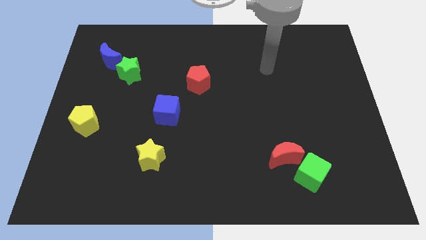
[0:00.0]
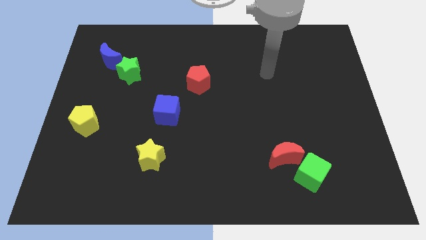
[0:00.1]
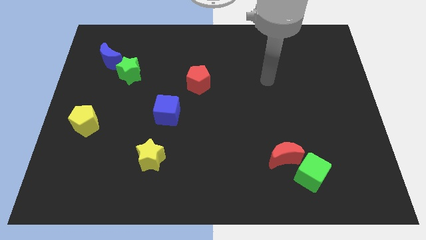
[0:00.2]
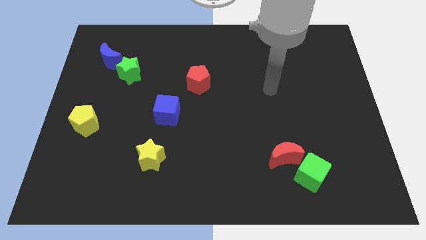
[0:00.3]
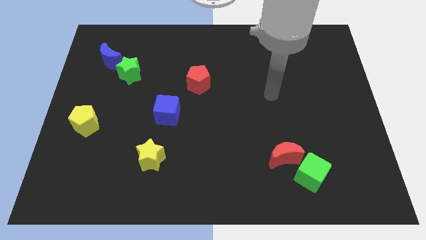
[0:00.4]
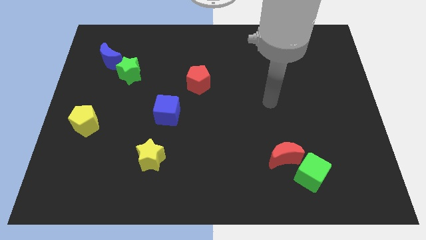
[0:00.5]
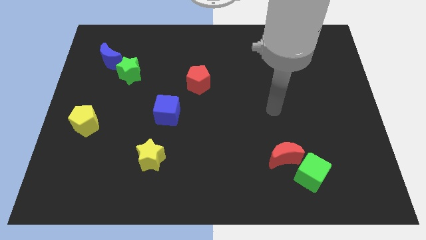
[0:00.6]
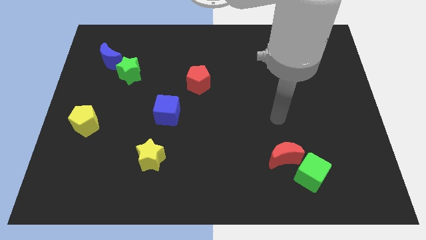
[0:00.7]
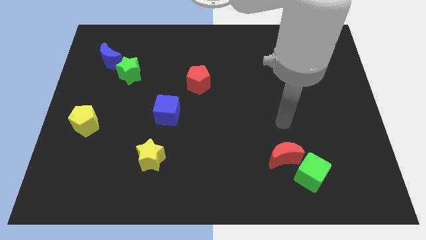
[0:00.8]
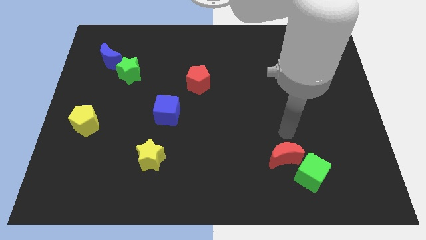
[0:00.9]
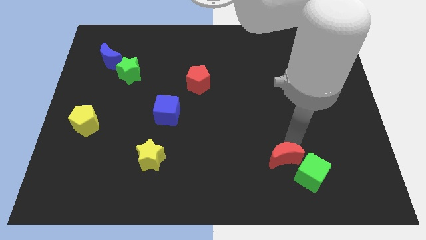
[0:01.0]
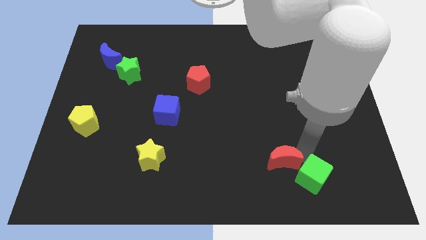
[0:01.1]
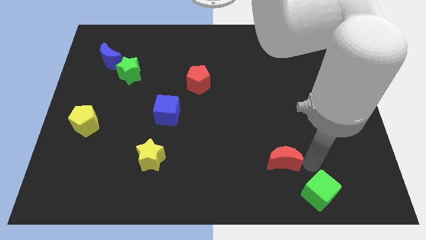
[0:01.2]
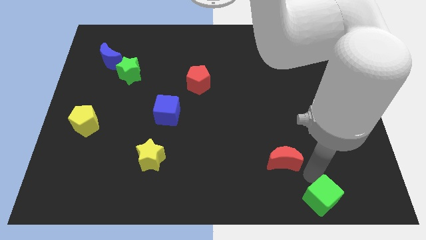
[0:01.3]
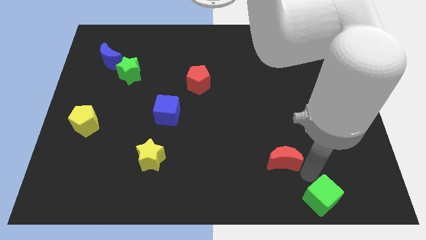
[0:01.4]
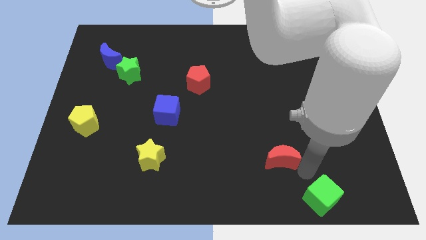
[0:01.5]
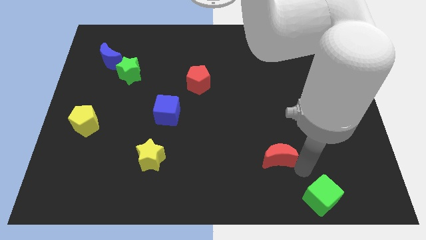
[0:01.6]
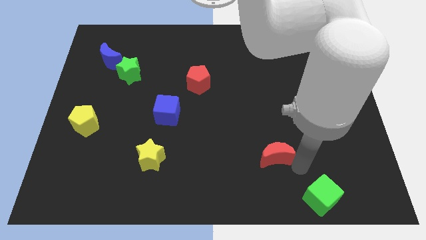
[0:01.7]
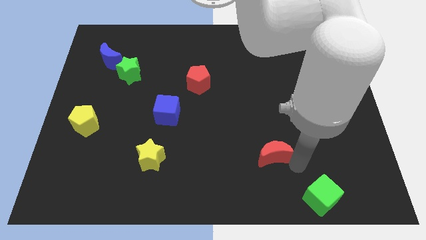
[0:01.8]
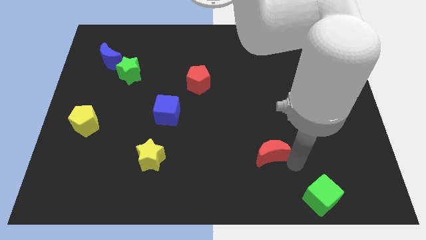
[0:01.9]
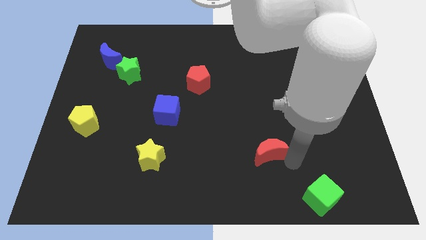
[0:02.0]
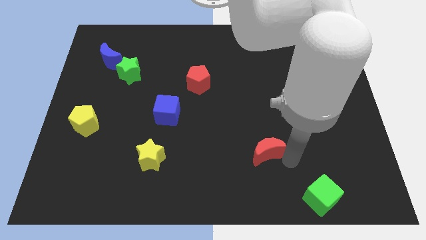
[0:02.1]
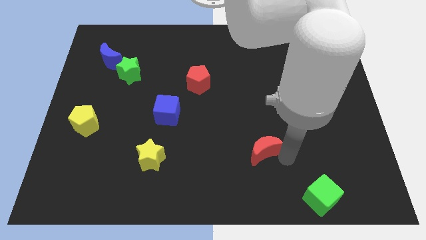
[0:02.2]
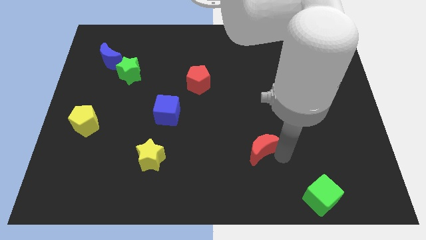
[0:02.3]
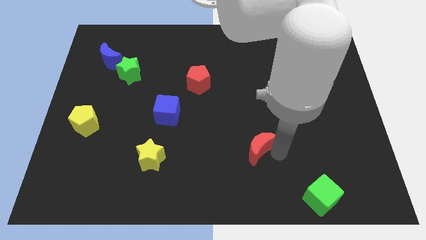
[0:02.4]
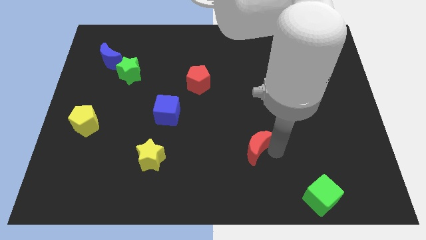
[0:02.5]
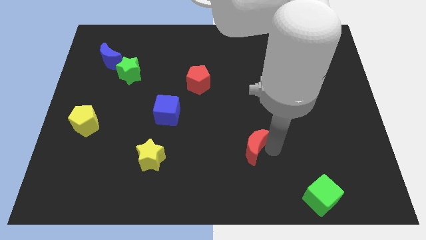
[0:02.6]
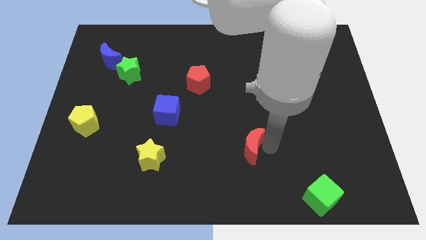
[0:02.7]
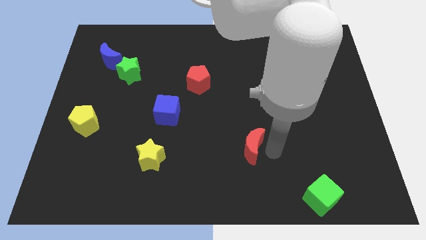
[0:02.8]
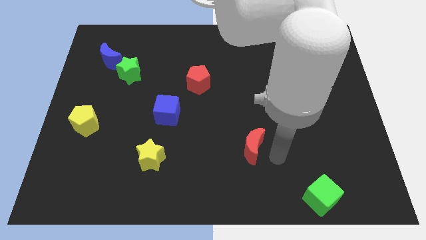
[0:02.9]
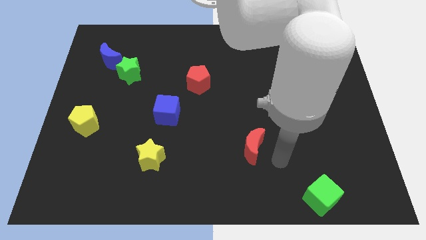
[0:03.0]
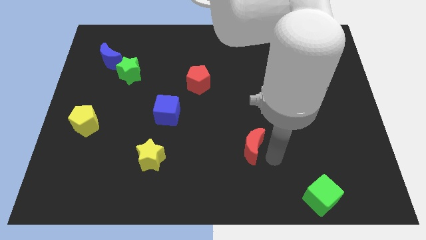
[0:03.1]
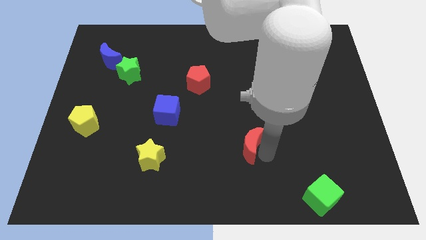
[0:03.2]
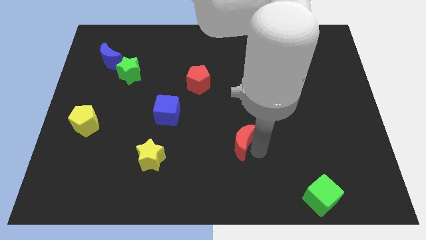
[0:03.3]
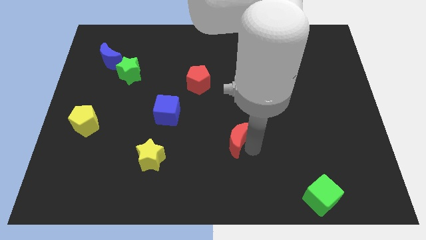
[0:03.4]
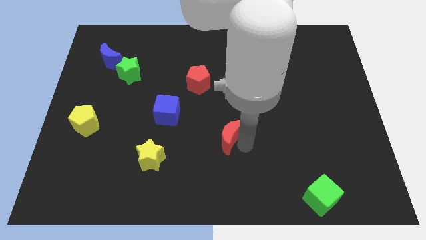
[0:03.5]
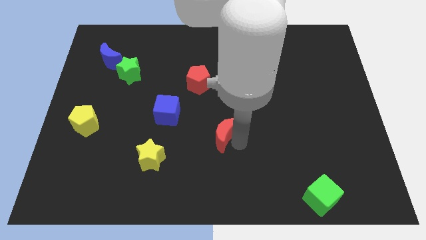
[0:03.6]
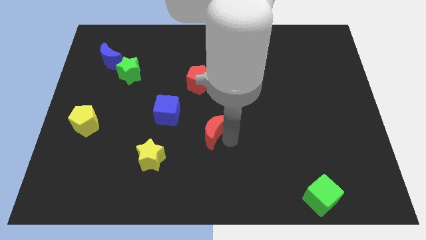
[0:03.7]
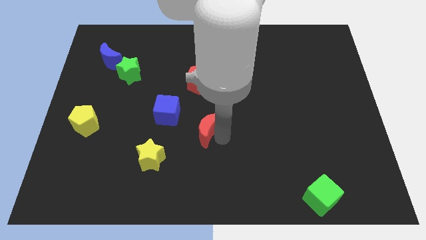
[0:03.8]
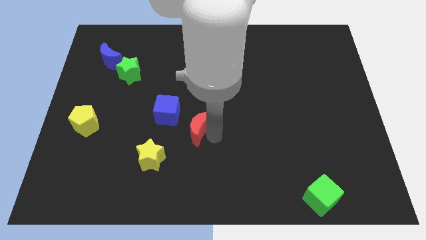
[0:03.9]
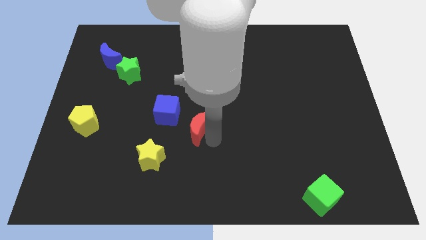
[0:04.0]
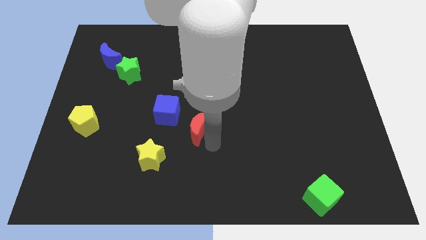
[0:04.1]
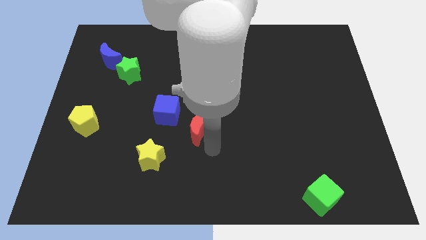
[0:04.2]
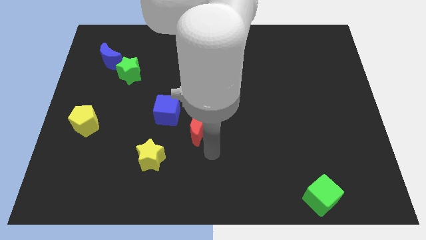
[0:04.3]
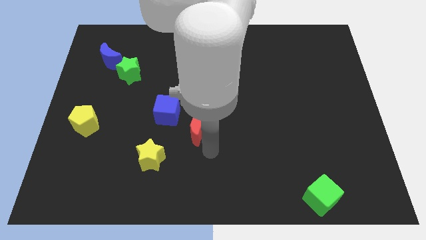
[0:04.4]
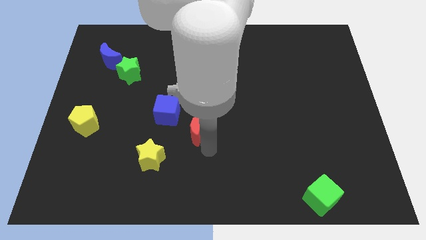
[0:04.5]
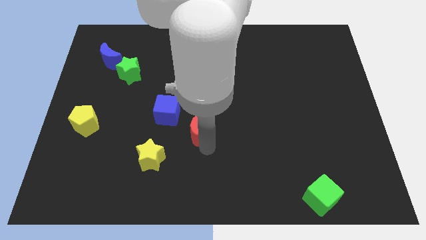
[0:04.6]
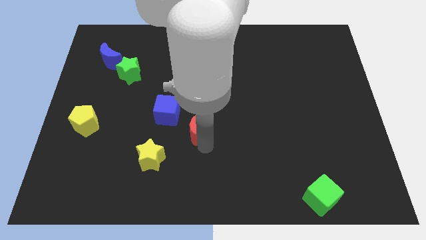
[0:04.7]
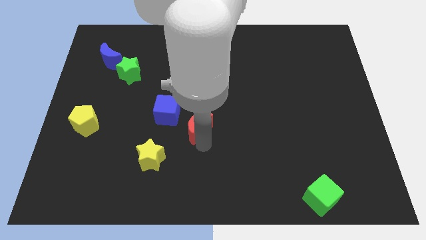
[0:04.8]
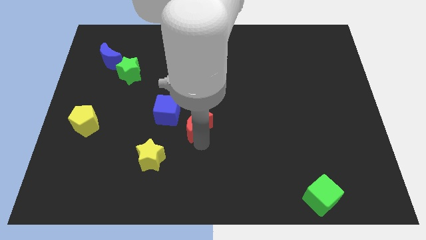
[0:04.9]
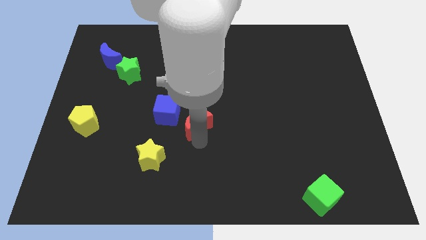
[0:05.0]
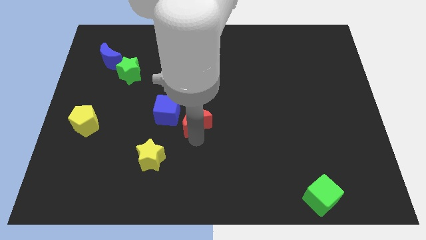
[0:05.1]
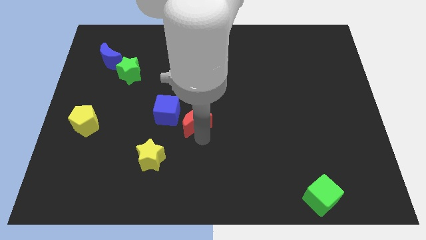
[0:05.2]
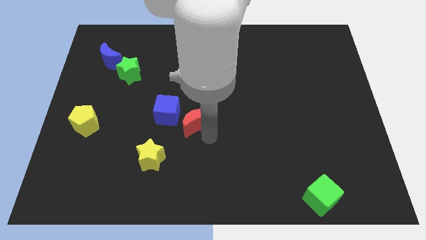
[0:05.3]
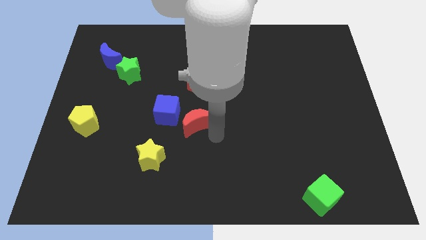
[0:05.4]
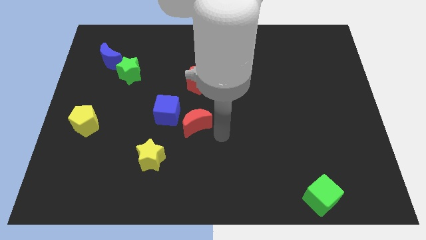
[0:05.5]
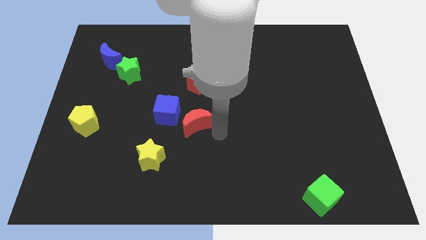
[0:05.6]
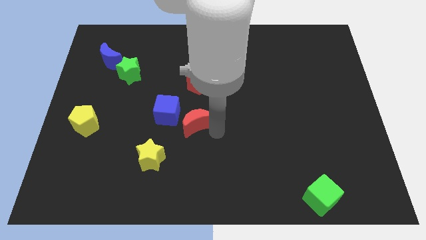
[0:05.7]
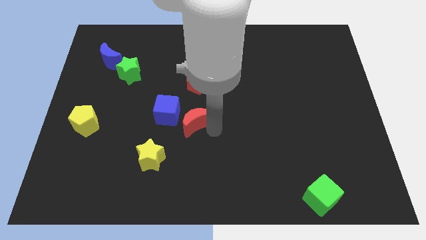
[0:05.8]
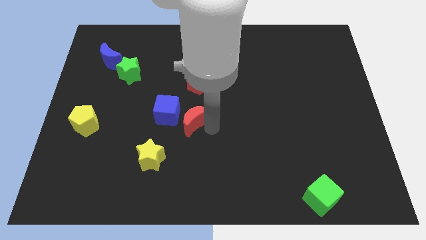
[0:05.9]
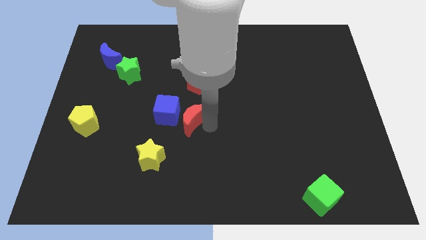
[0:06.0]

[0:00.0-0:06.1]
put the red moon towards the blue cube

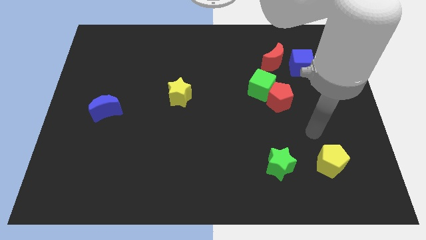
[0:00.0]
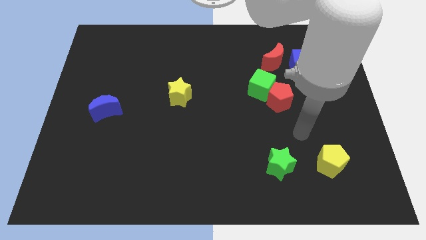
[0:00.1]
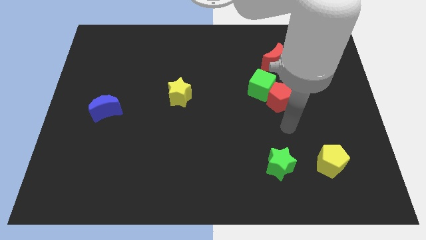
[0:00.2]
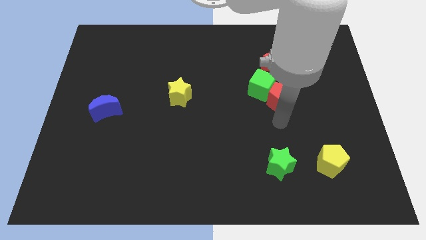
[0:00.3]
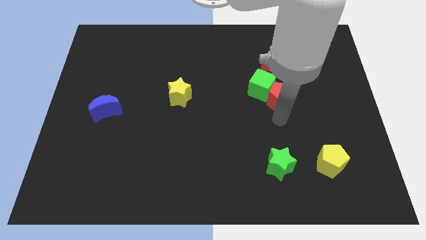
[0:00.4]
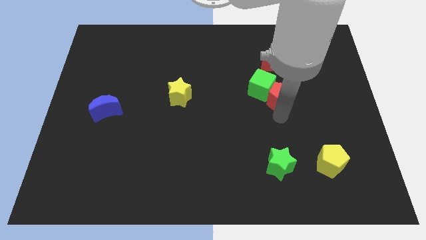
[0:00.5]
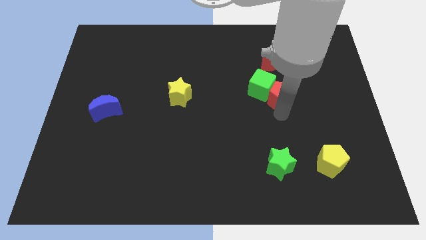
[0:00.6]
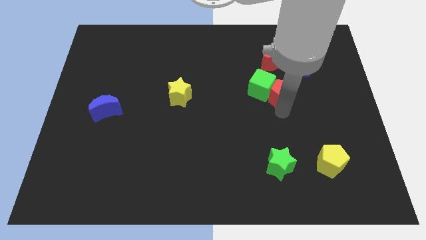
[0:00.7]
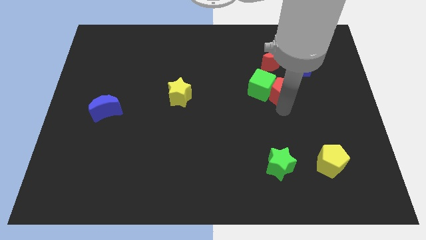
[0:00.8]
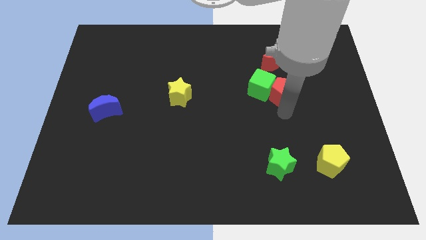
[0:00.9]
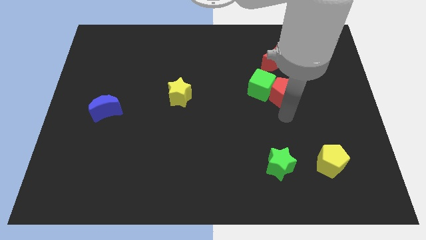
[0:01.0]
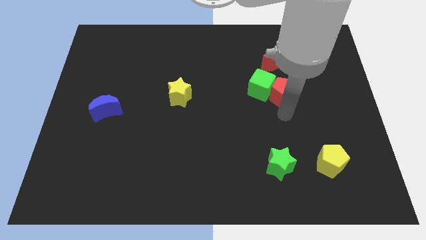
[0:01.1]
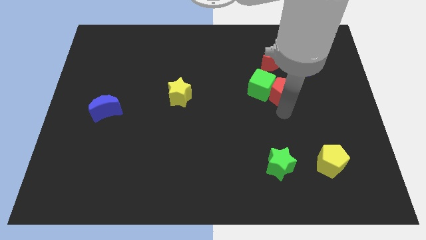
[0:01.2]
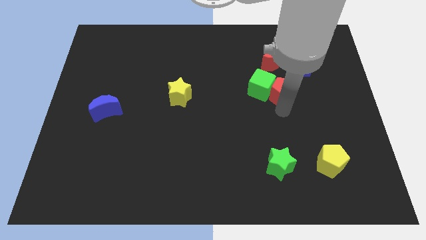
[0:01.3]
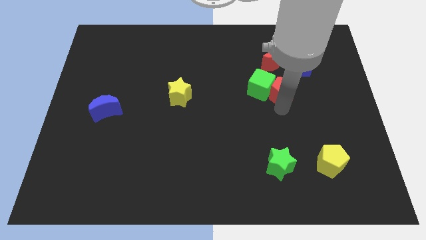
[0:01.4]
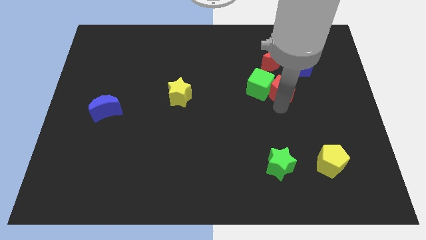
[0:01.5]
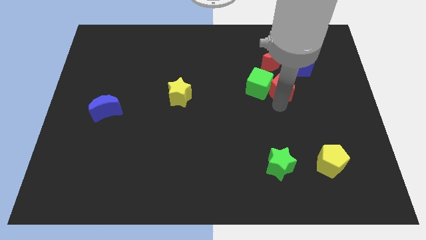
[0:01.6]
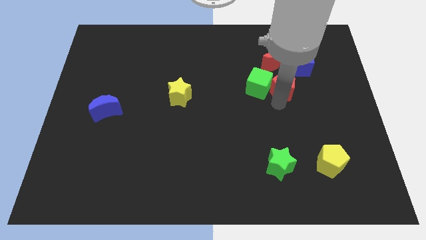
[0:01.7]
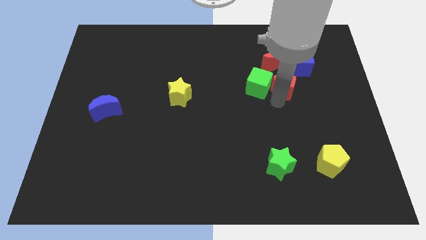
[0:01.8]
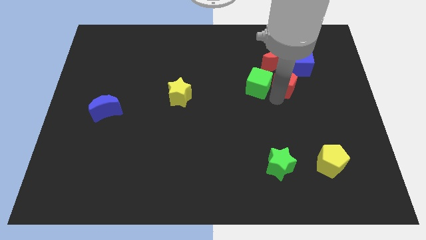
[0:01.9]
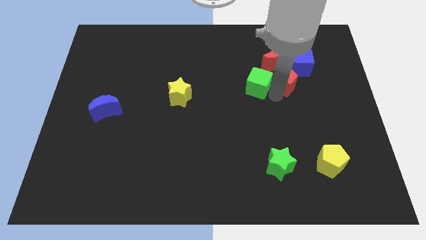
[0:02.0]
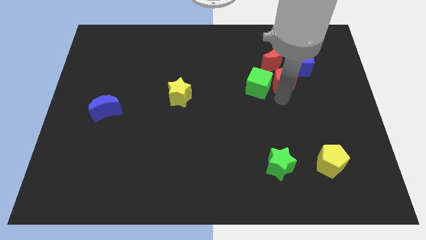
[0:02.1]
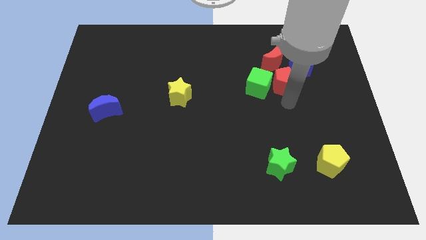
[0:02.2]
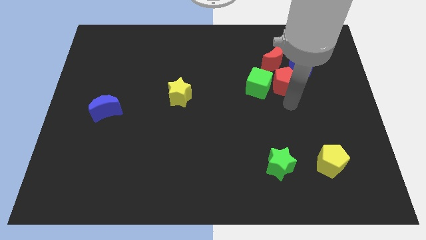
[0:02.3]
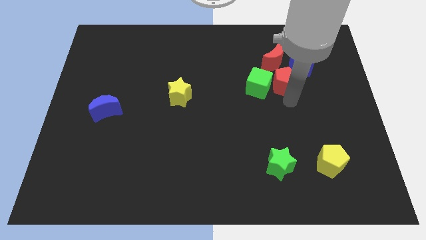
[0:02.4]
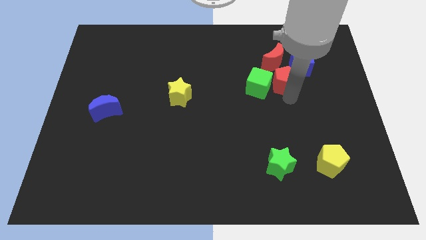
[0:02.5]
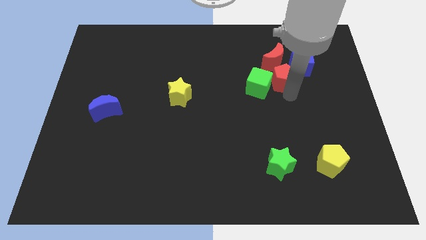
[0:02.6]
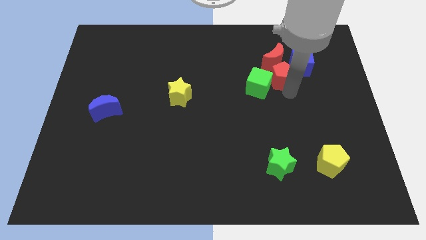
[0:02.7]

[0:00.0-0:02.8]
slide the red pentagon towards the red moon
